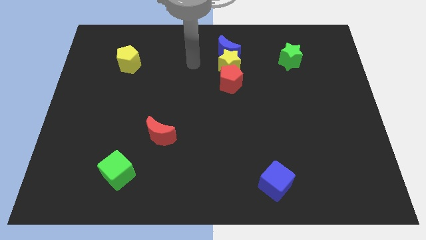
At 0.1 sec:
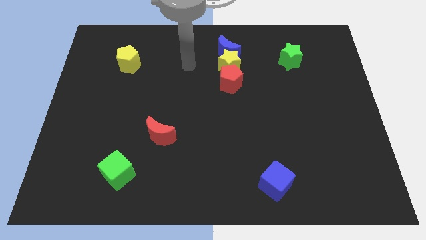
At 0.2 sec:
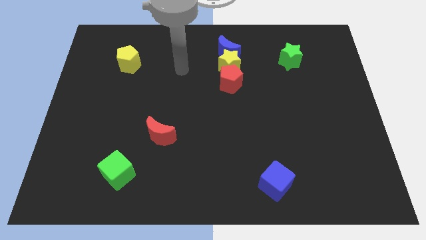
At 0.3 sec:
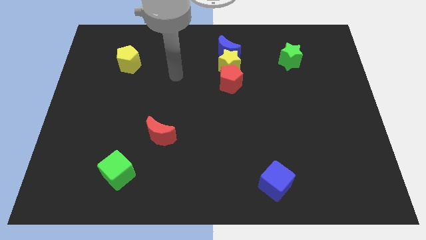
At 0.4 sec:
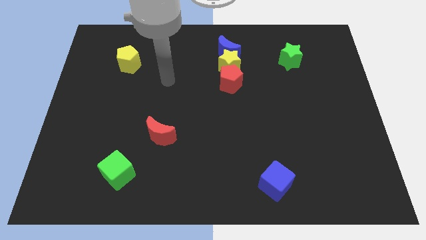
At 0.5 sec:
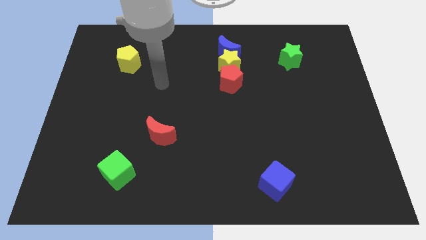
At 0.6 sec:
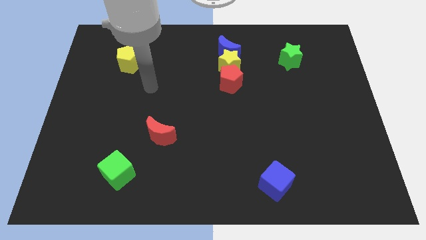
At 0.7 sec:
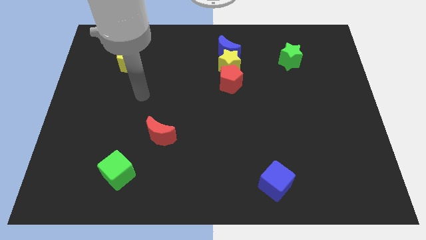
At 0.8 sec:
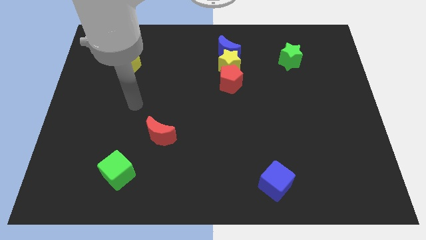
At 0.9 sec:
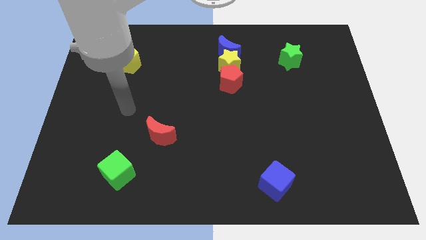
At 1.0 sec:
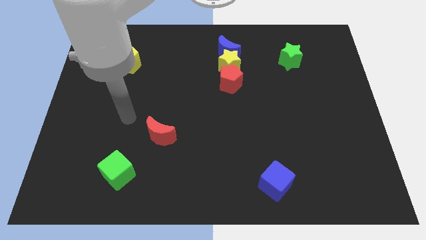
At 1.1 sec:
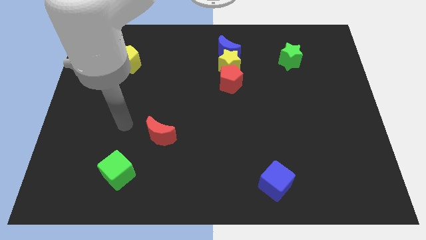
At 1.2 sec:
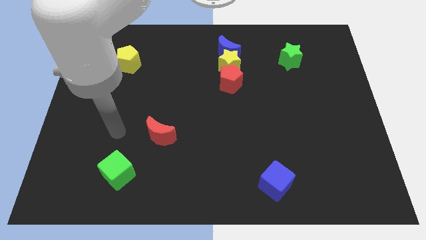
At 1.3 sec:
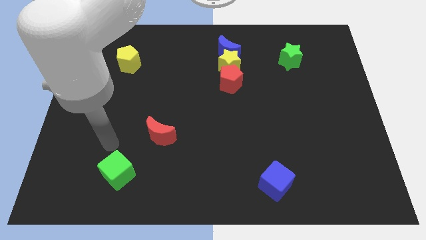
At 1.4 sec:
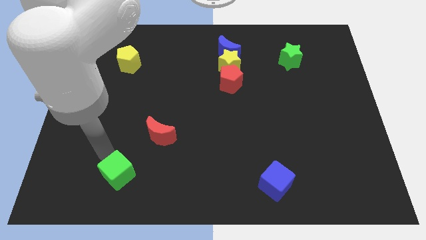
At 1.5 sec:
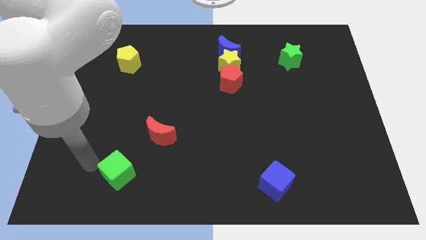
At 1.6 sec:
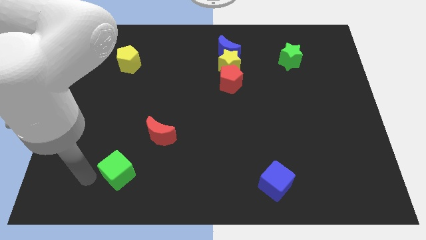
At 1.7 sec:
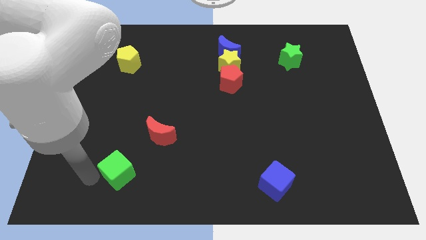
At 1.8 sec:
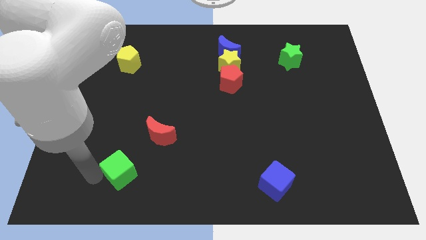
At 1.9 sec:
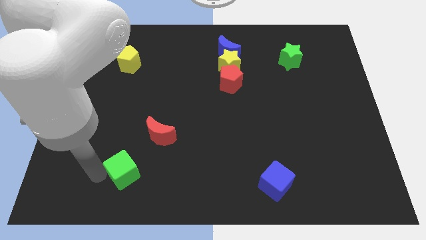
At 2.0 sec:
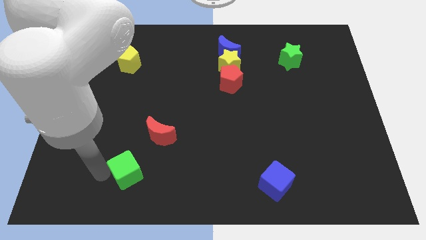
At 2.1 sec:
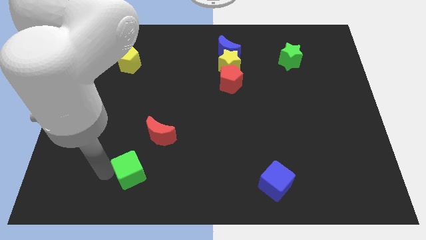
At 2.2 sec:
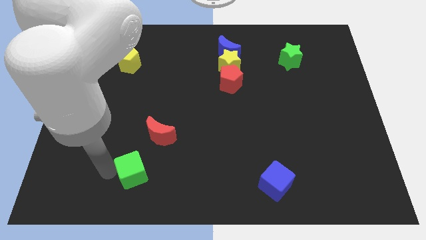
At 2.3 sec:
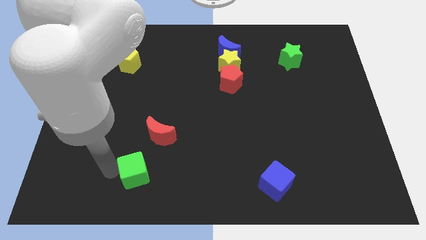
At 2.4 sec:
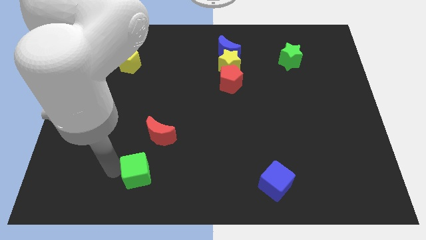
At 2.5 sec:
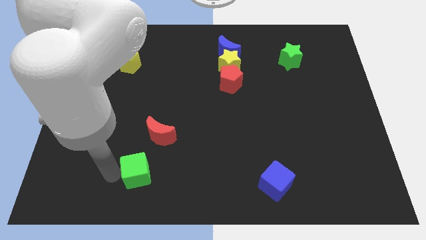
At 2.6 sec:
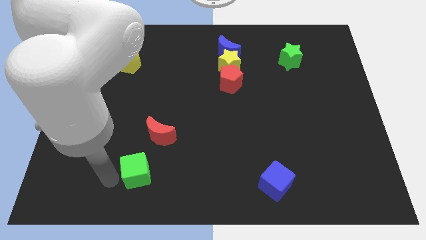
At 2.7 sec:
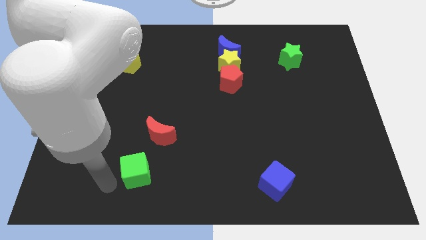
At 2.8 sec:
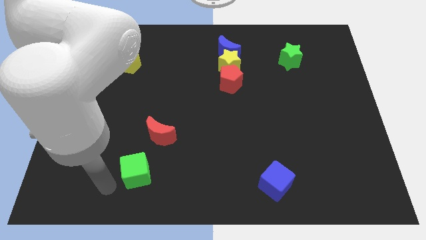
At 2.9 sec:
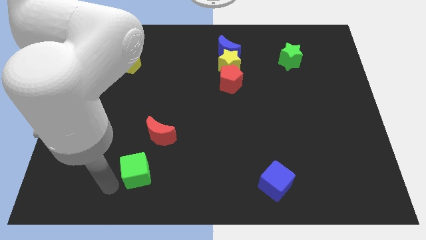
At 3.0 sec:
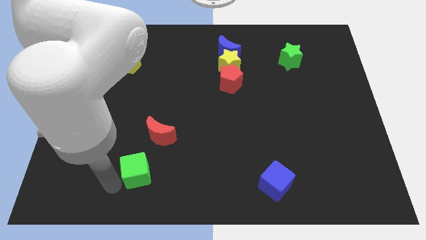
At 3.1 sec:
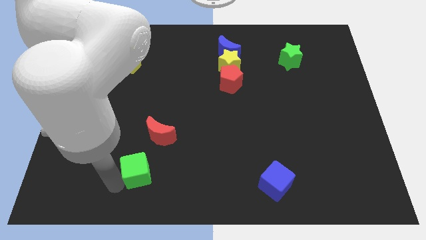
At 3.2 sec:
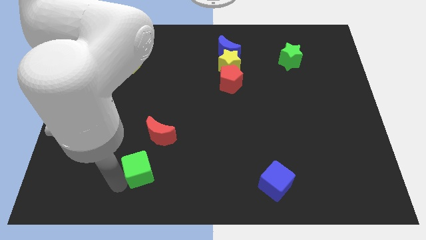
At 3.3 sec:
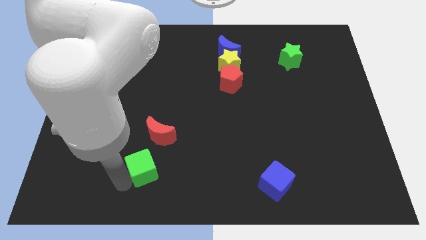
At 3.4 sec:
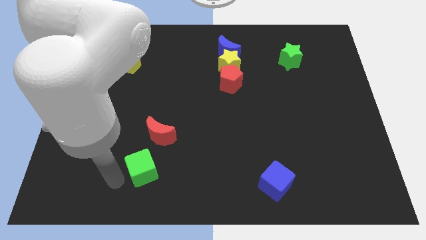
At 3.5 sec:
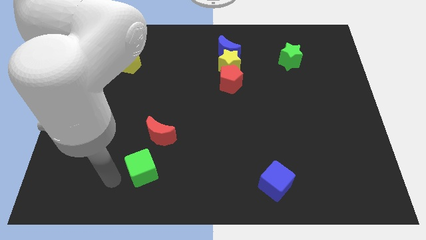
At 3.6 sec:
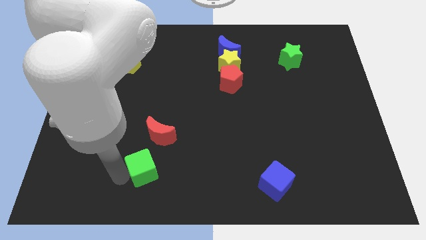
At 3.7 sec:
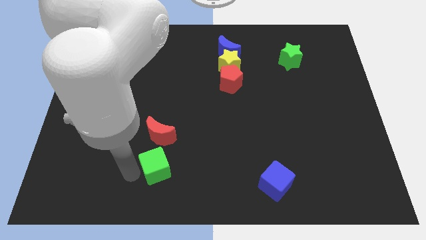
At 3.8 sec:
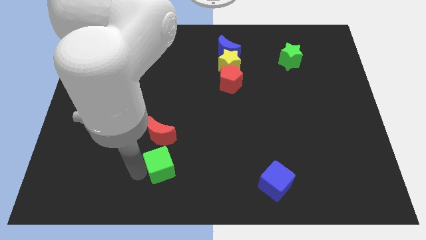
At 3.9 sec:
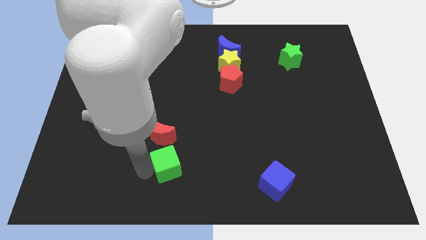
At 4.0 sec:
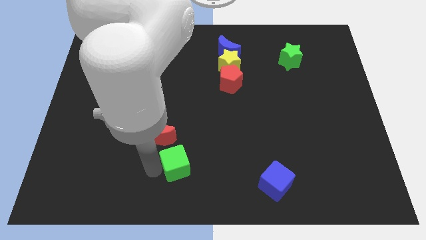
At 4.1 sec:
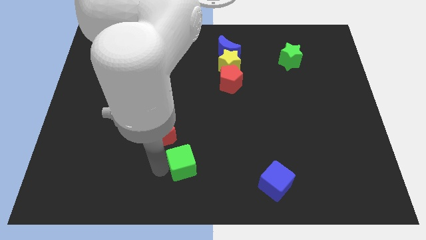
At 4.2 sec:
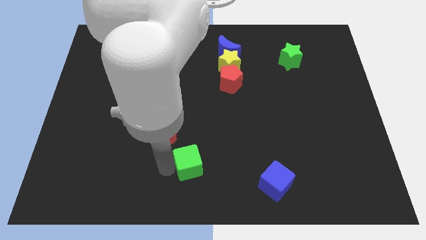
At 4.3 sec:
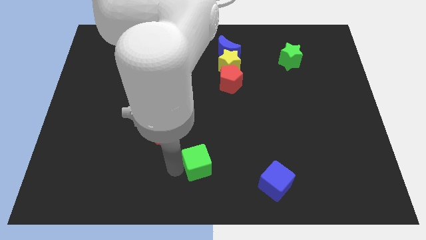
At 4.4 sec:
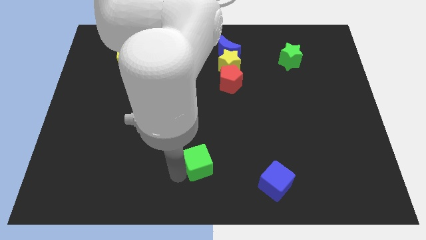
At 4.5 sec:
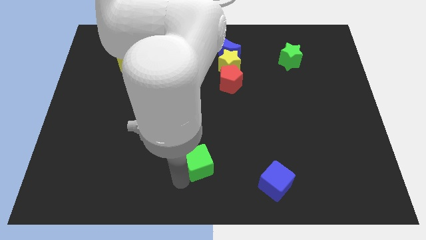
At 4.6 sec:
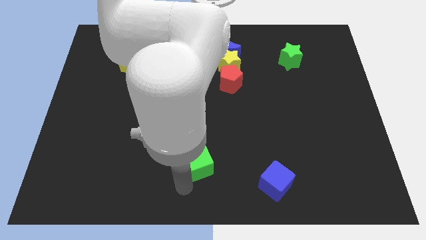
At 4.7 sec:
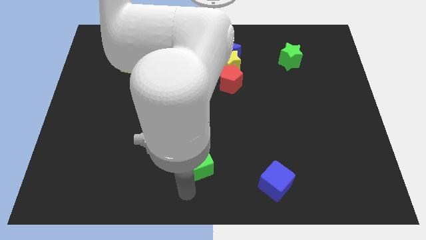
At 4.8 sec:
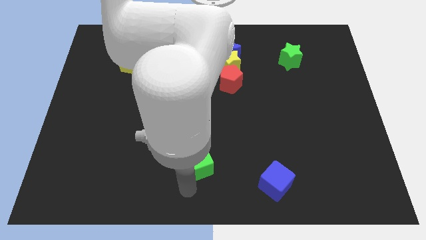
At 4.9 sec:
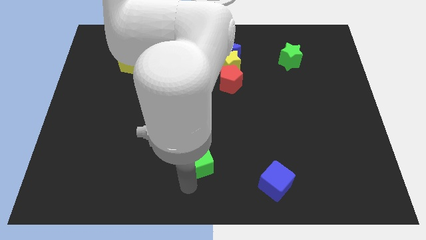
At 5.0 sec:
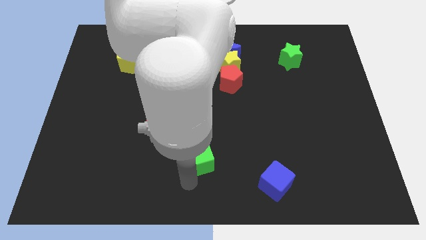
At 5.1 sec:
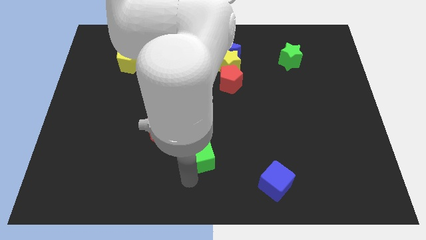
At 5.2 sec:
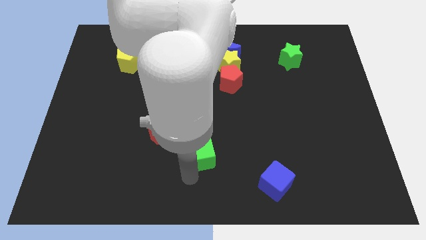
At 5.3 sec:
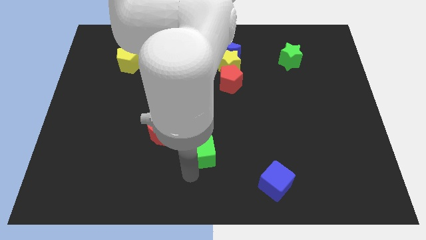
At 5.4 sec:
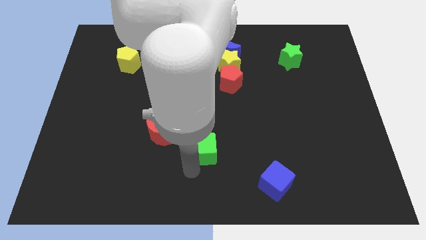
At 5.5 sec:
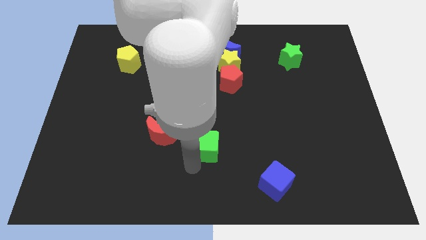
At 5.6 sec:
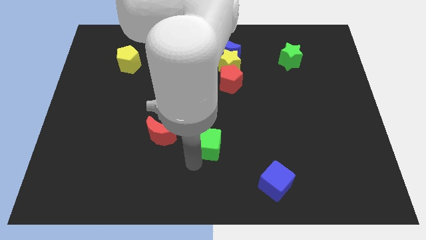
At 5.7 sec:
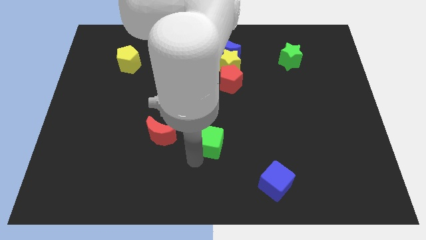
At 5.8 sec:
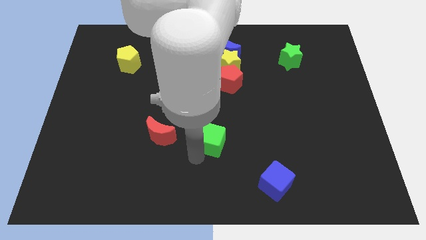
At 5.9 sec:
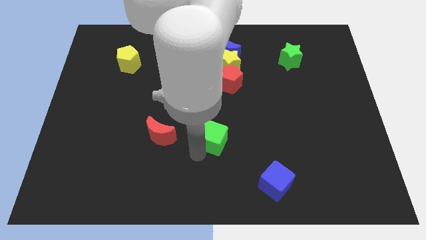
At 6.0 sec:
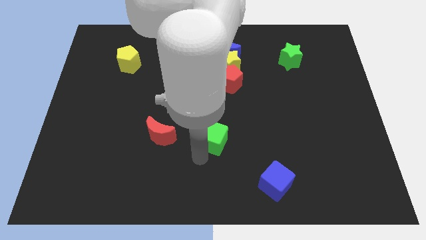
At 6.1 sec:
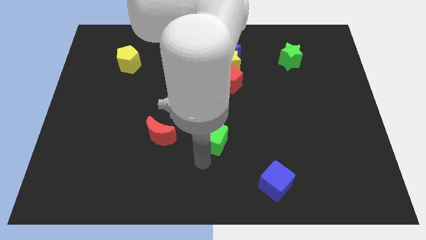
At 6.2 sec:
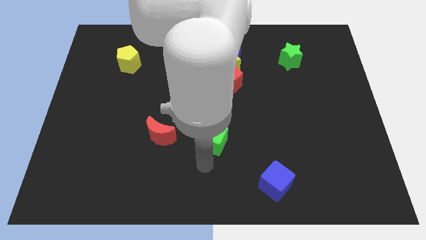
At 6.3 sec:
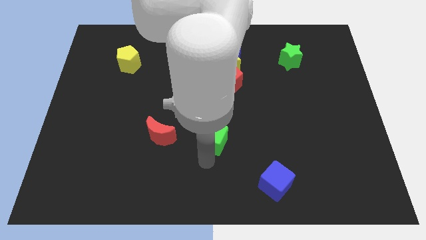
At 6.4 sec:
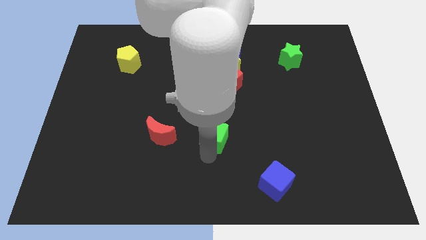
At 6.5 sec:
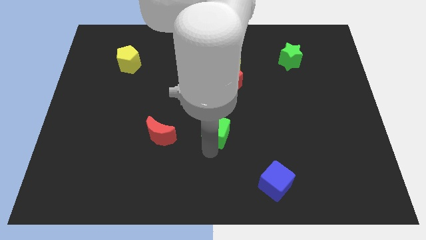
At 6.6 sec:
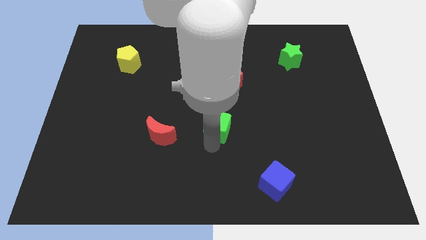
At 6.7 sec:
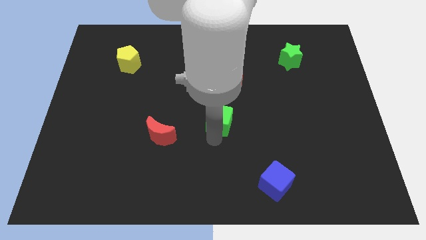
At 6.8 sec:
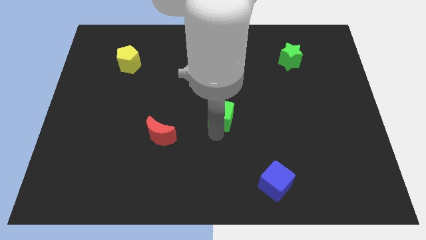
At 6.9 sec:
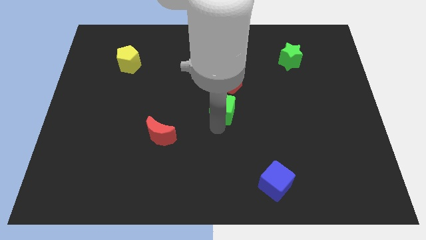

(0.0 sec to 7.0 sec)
slide the green cube to the bottom of the yellow star

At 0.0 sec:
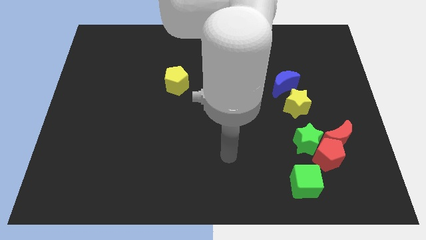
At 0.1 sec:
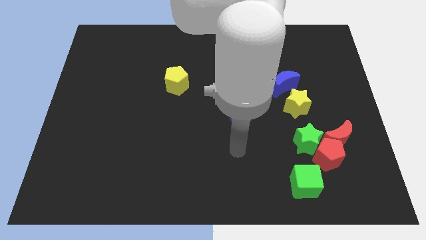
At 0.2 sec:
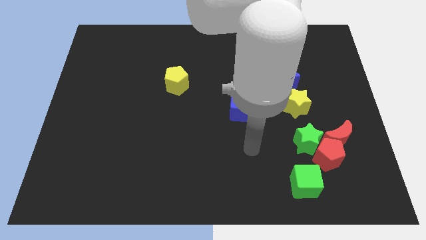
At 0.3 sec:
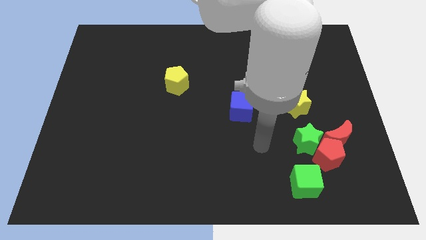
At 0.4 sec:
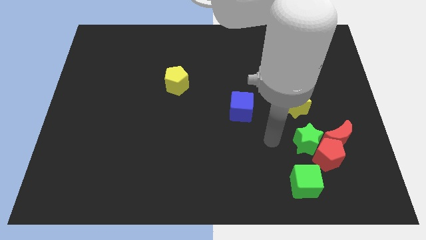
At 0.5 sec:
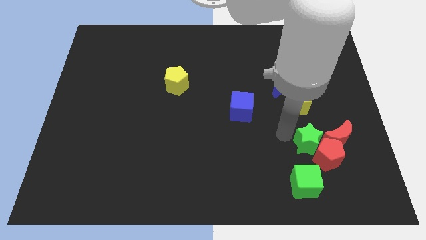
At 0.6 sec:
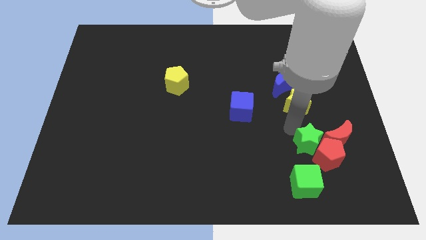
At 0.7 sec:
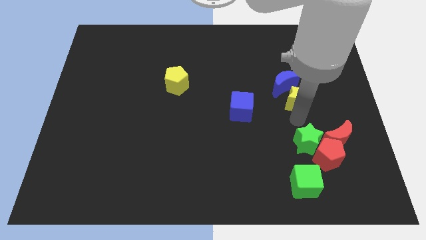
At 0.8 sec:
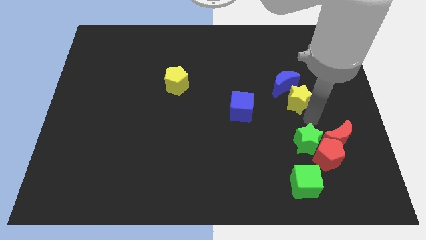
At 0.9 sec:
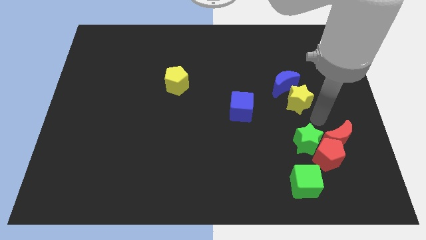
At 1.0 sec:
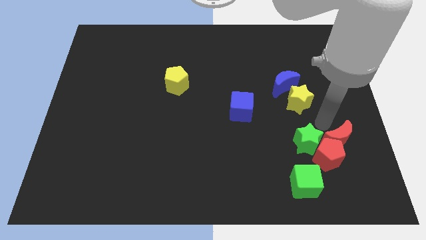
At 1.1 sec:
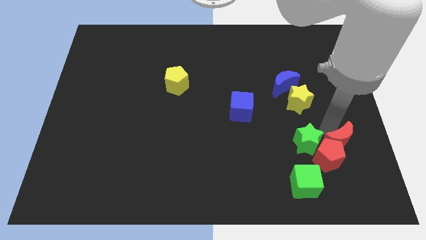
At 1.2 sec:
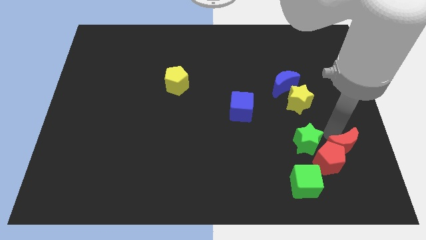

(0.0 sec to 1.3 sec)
move the red moon to the bottom right of the green star
